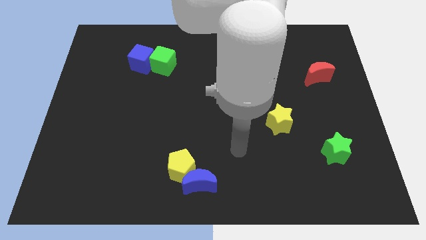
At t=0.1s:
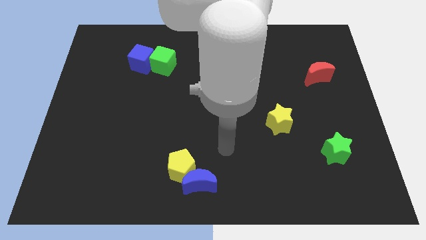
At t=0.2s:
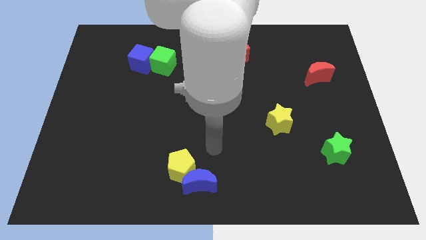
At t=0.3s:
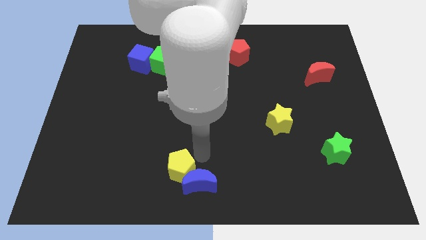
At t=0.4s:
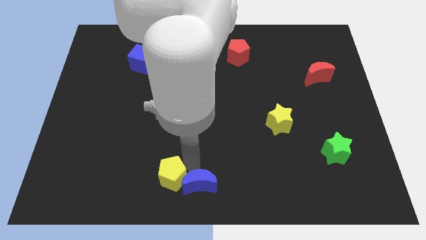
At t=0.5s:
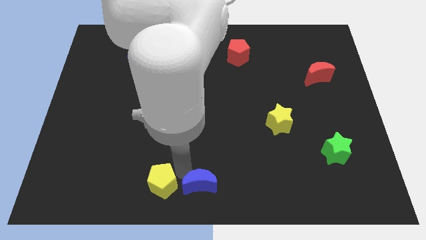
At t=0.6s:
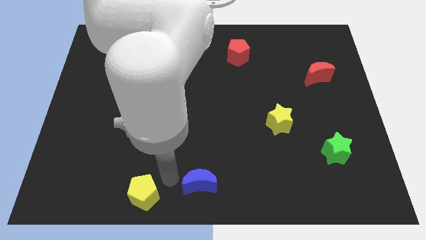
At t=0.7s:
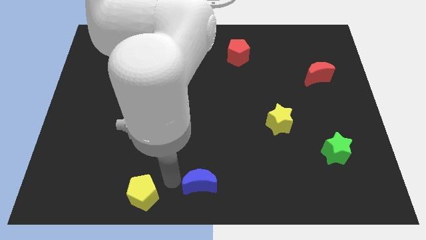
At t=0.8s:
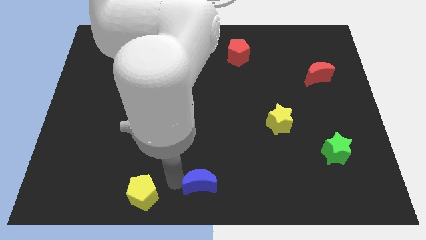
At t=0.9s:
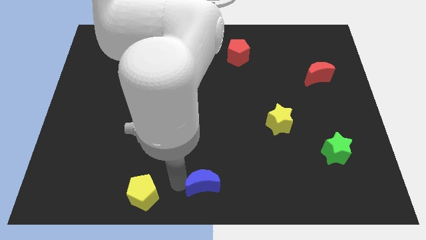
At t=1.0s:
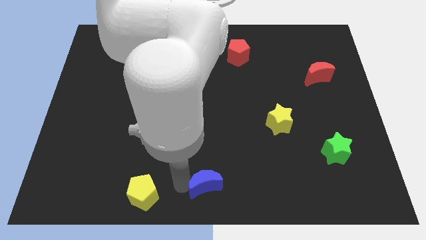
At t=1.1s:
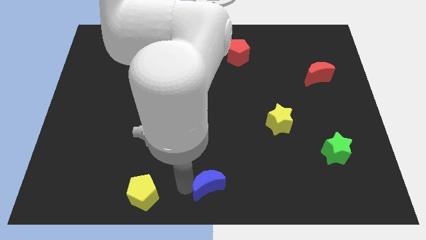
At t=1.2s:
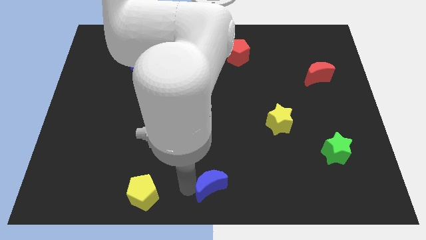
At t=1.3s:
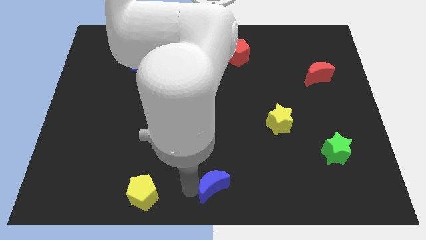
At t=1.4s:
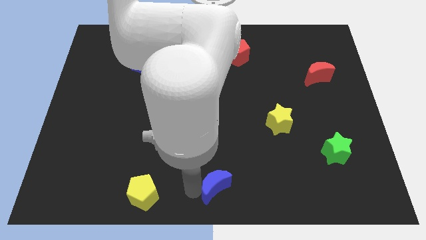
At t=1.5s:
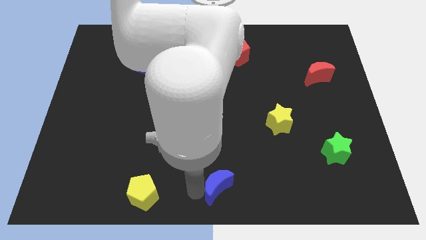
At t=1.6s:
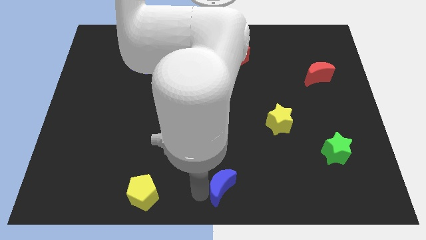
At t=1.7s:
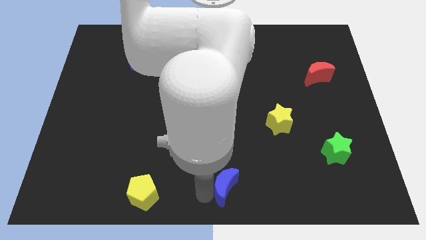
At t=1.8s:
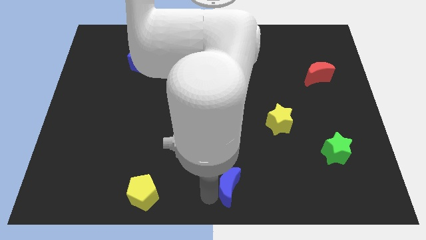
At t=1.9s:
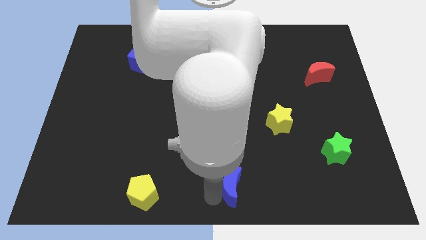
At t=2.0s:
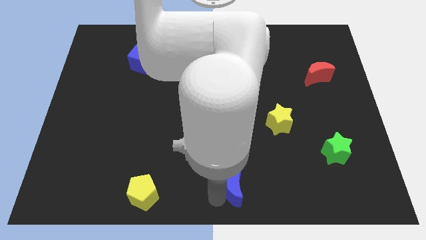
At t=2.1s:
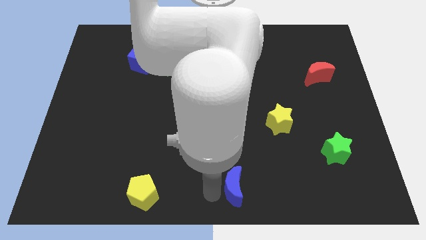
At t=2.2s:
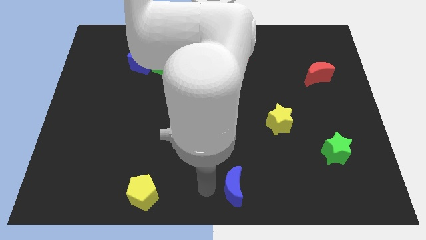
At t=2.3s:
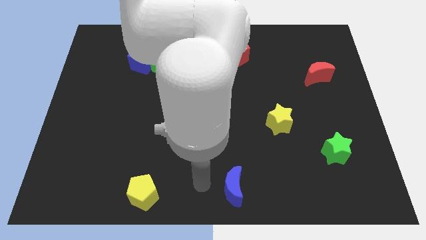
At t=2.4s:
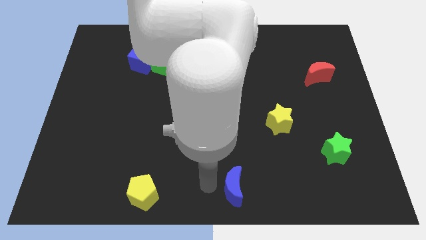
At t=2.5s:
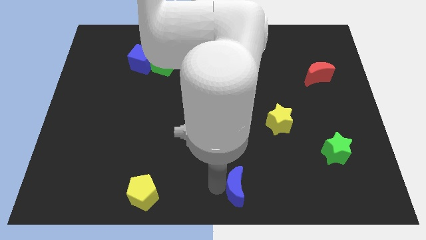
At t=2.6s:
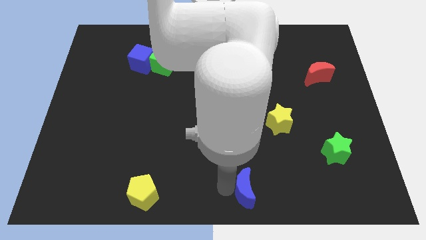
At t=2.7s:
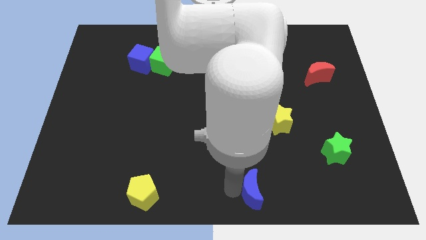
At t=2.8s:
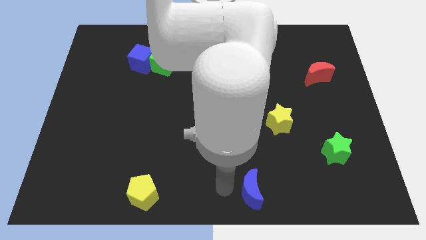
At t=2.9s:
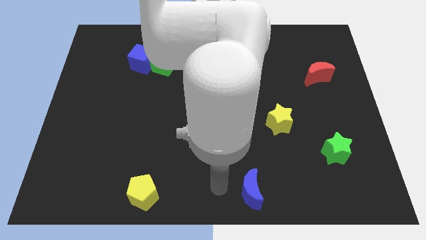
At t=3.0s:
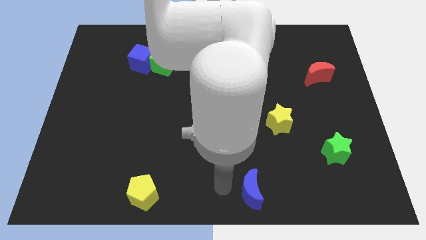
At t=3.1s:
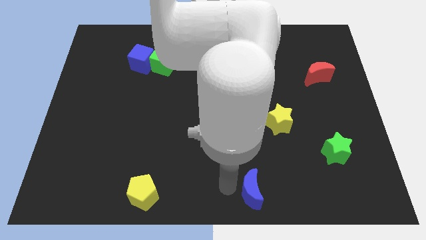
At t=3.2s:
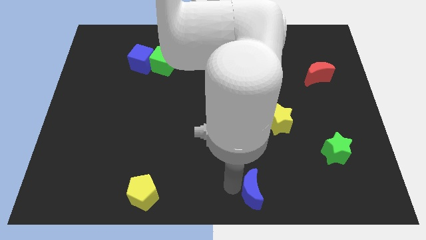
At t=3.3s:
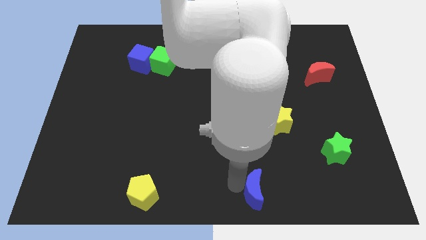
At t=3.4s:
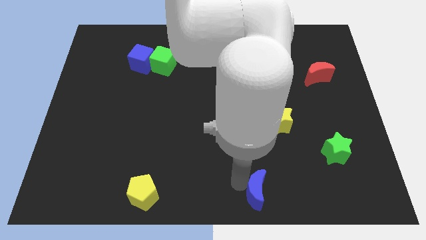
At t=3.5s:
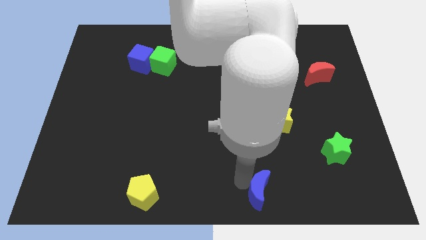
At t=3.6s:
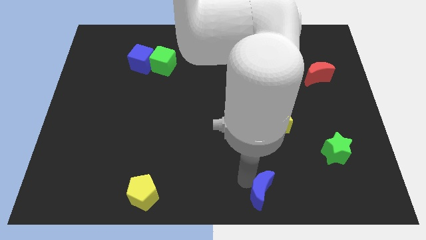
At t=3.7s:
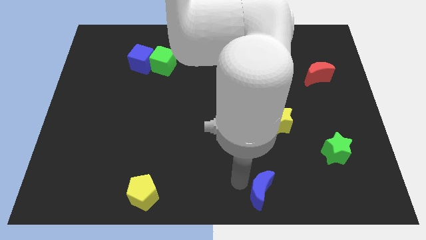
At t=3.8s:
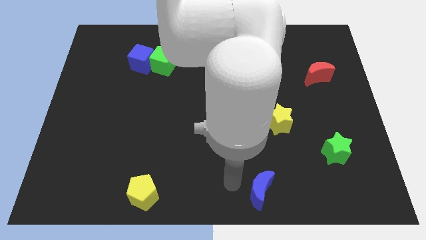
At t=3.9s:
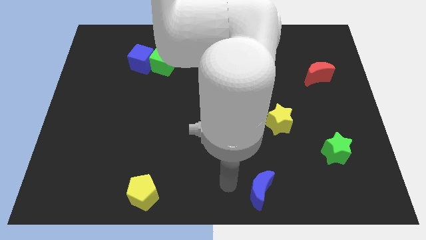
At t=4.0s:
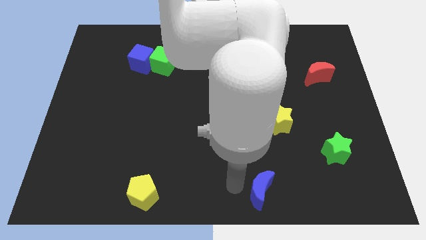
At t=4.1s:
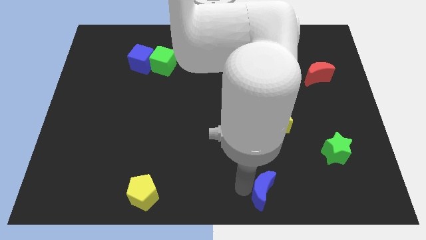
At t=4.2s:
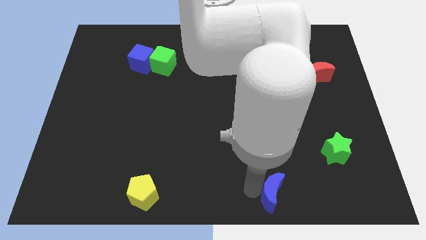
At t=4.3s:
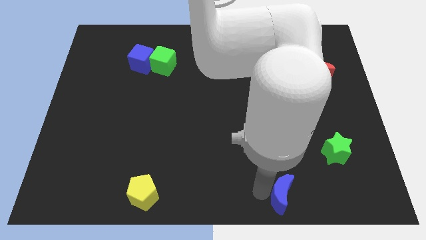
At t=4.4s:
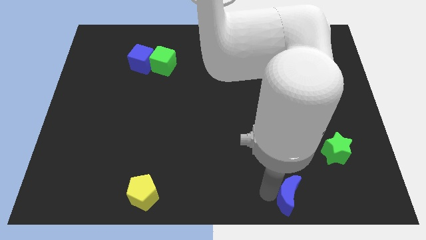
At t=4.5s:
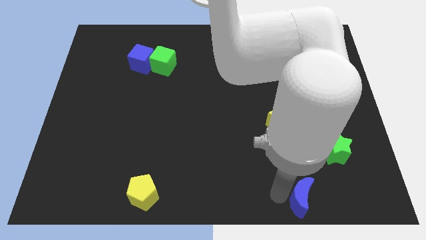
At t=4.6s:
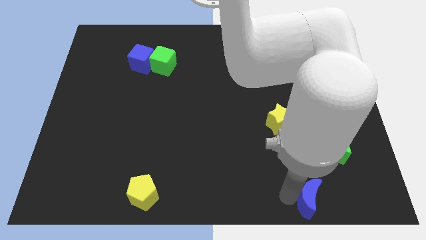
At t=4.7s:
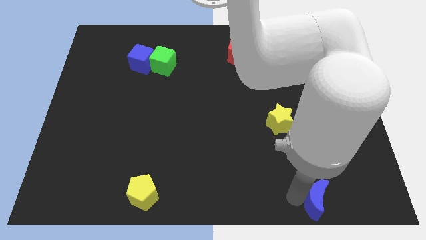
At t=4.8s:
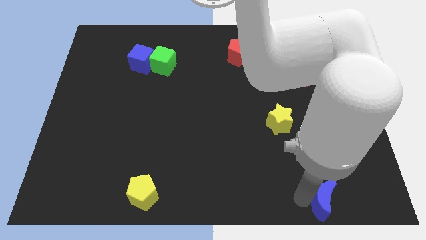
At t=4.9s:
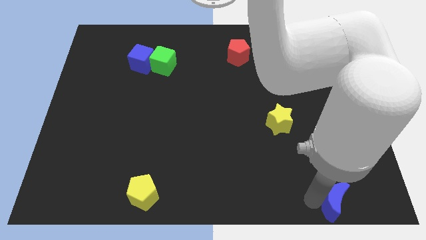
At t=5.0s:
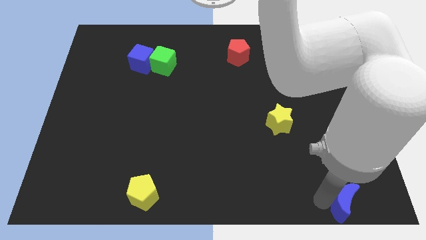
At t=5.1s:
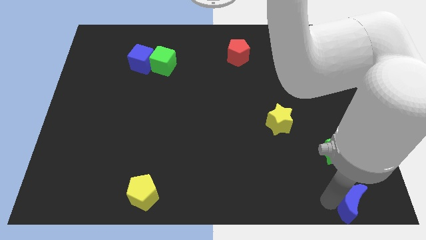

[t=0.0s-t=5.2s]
move the blue moon to the bottom right of the board
